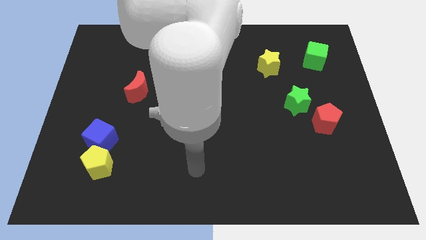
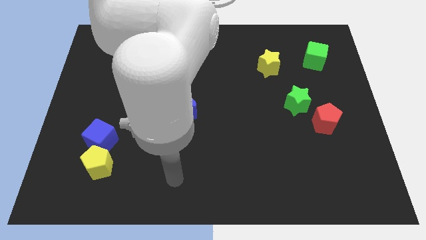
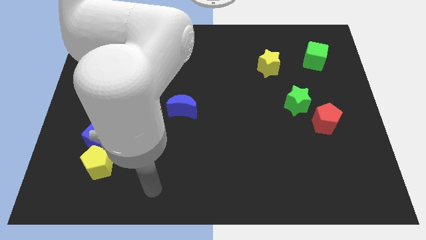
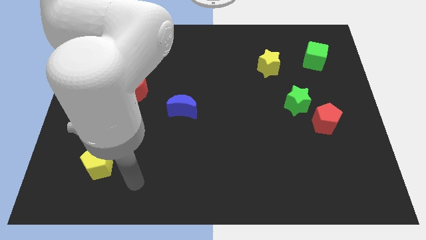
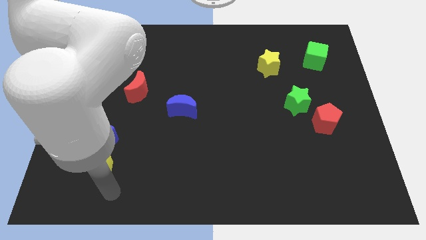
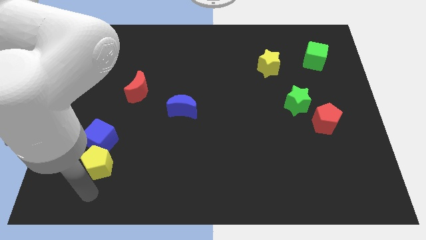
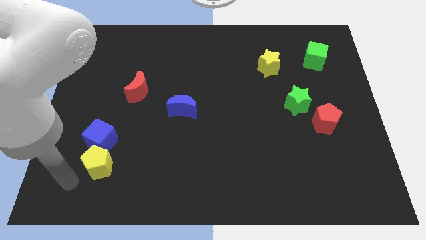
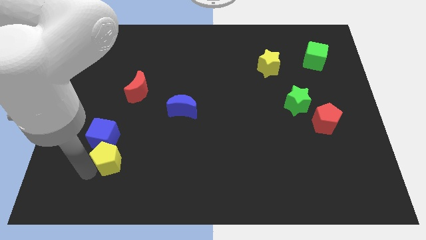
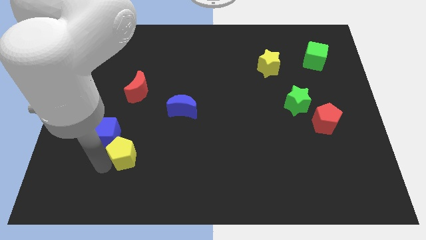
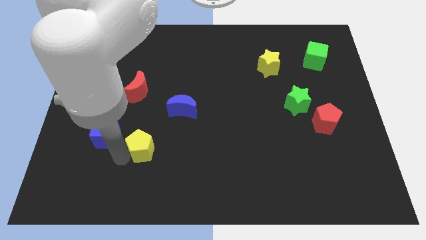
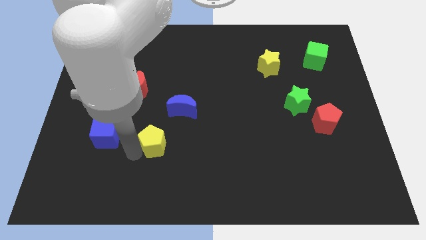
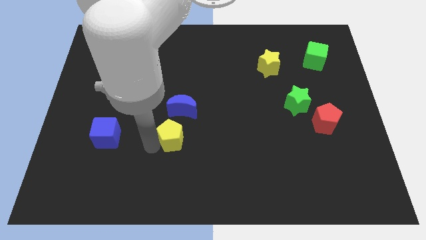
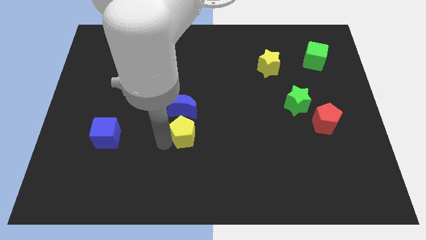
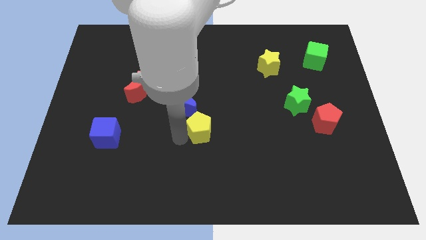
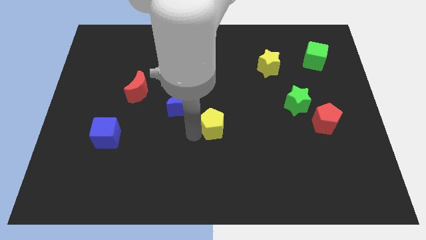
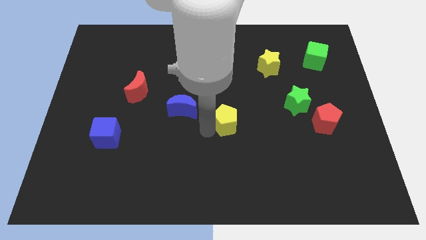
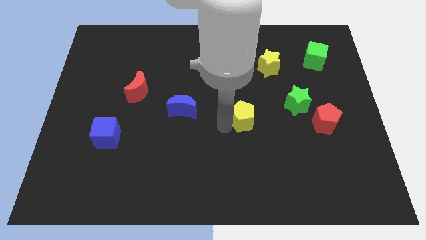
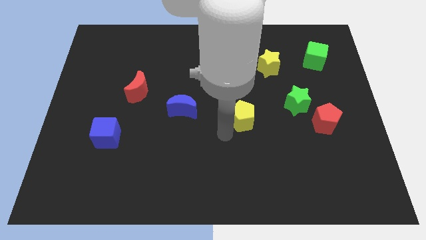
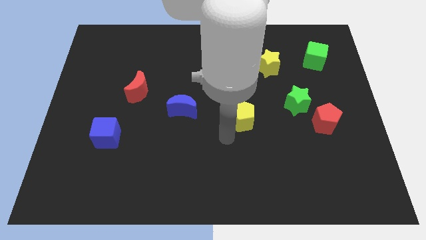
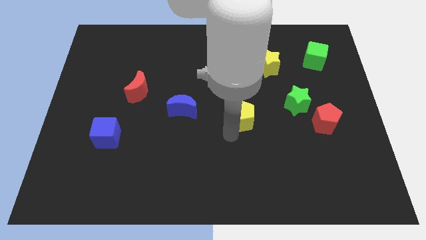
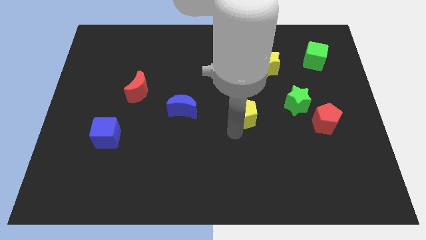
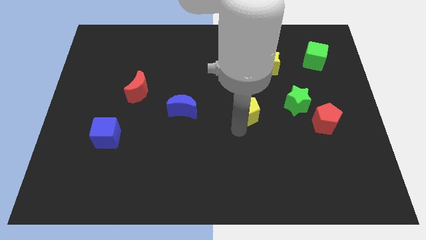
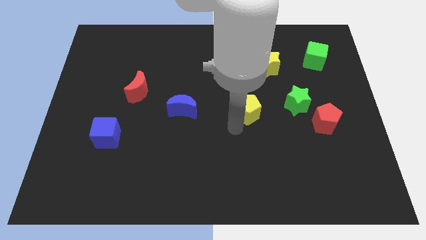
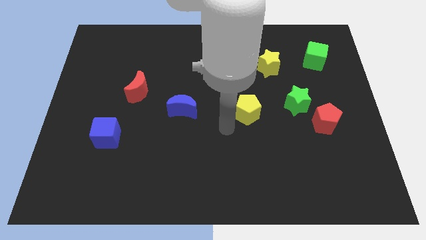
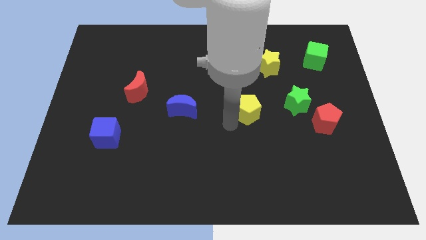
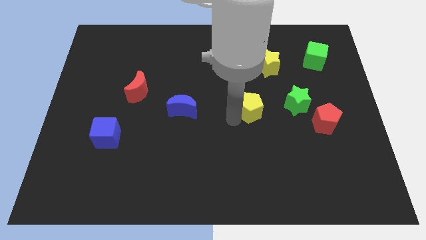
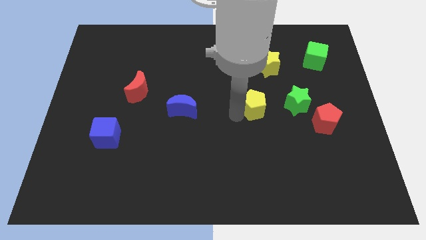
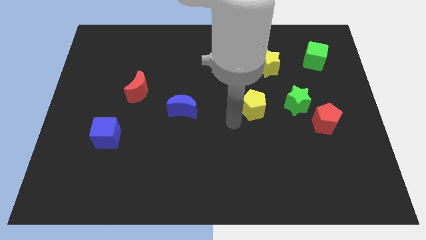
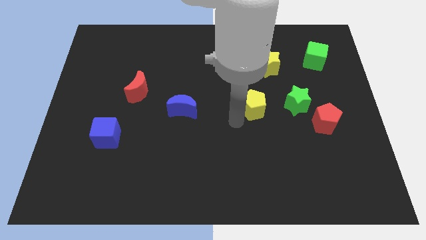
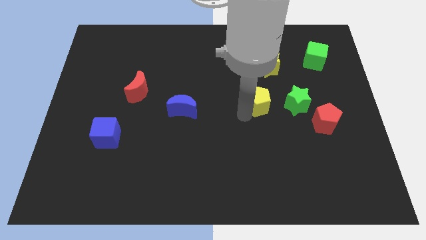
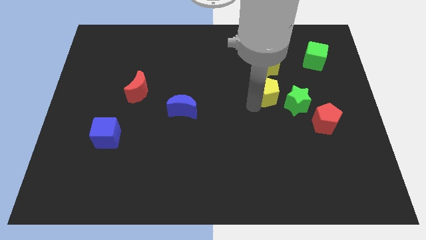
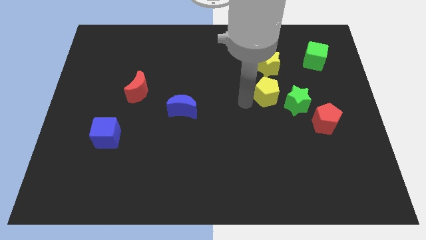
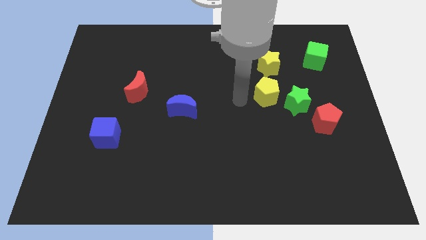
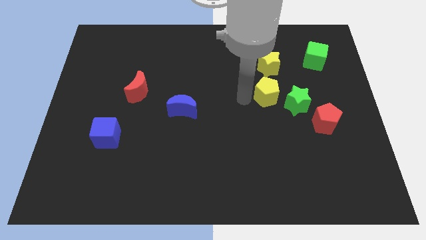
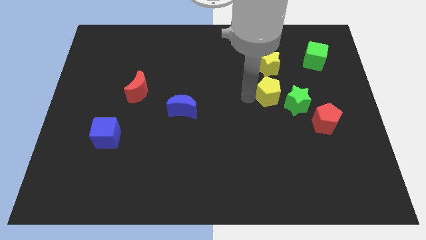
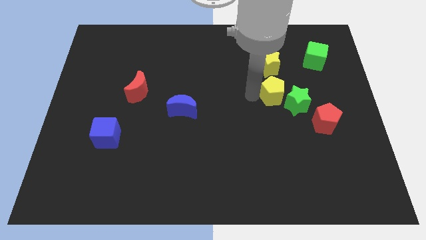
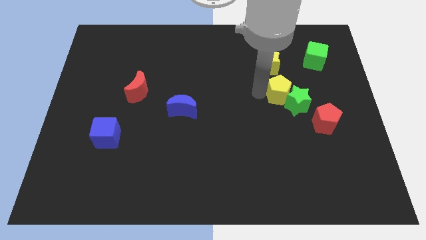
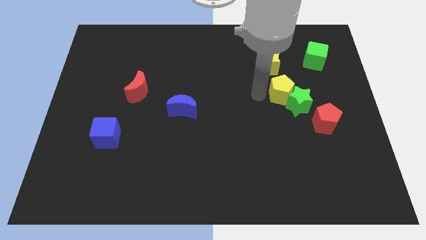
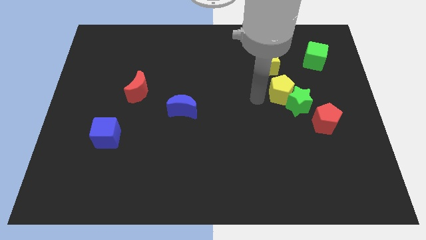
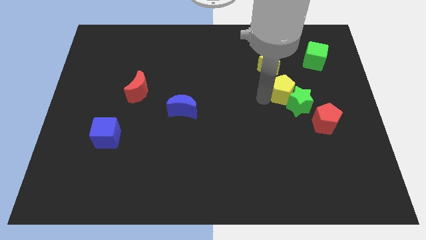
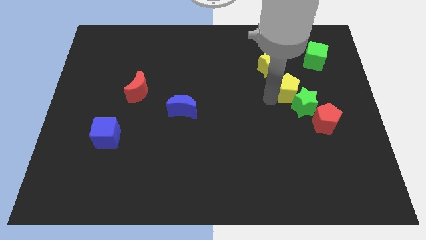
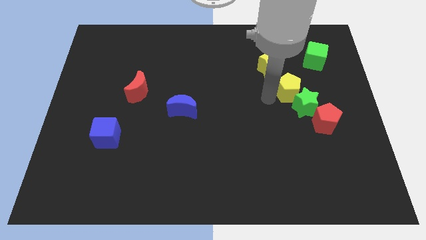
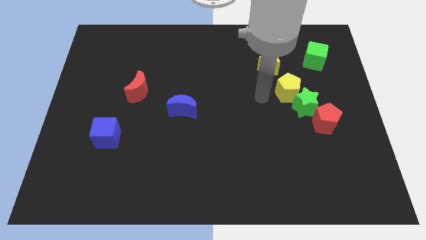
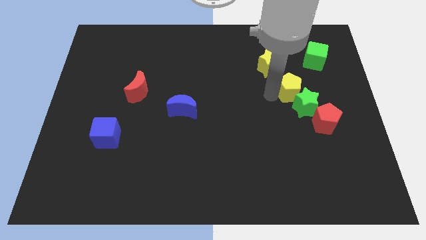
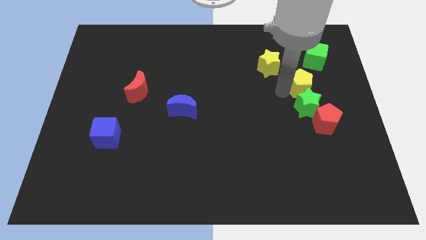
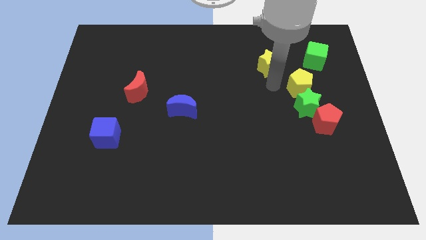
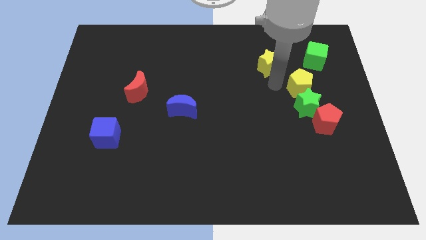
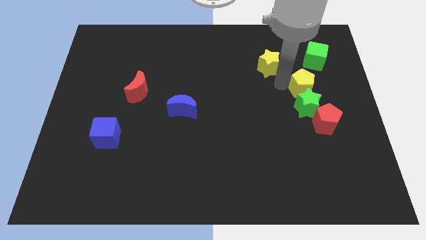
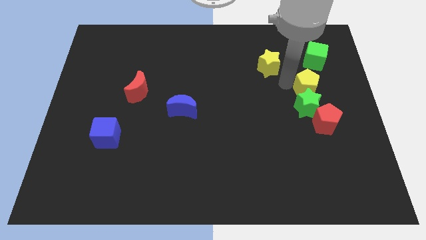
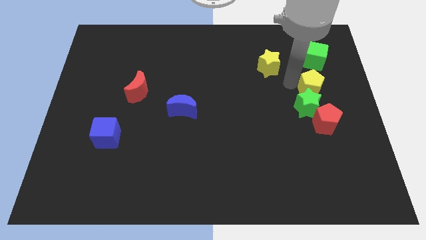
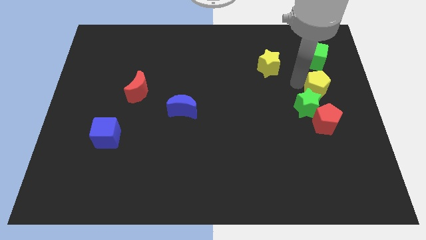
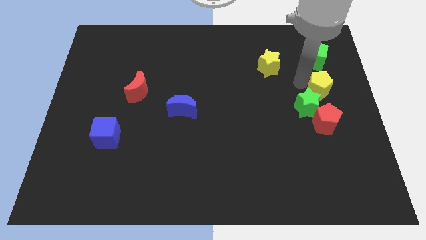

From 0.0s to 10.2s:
move the yellow pentagon to the center right

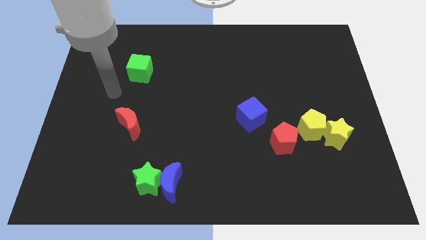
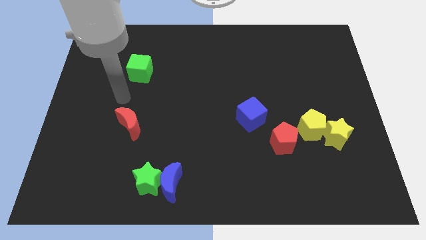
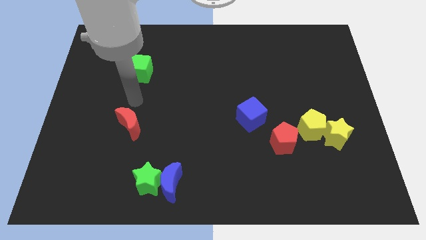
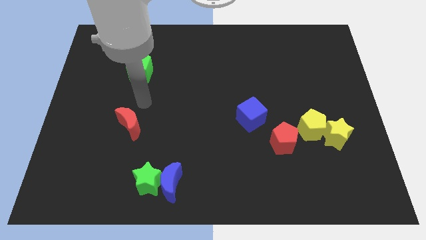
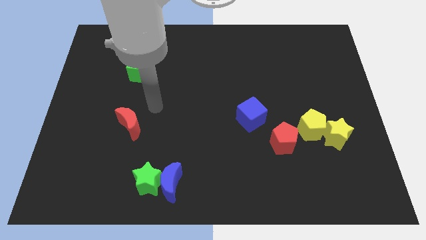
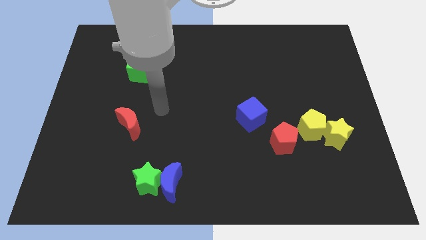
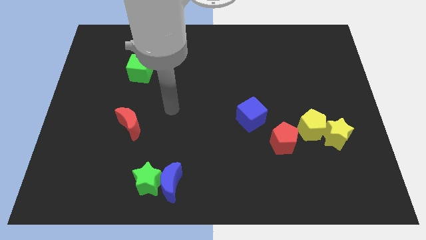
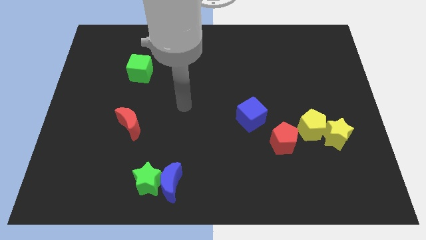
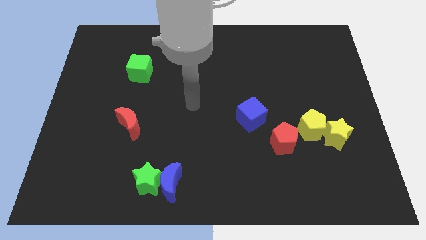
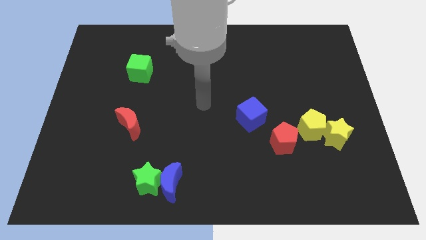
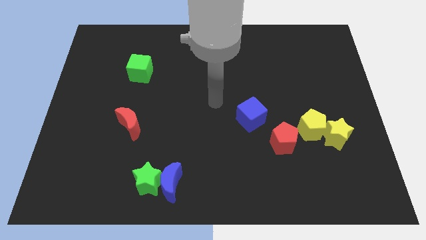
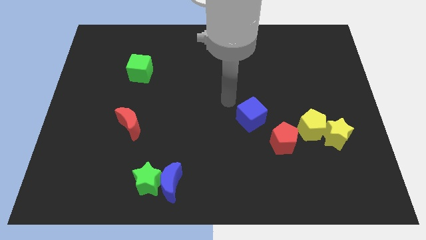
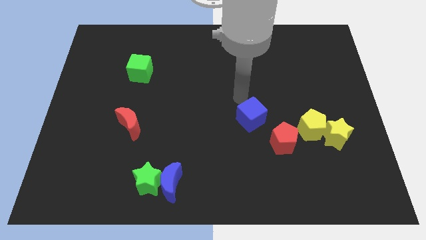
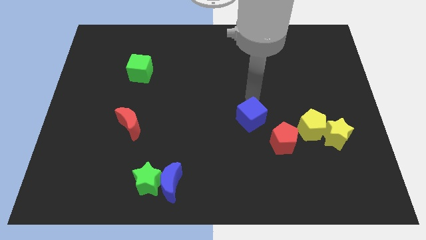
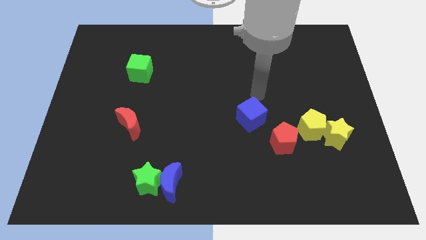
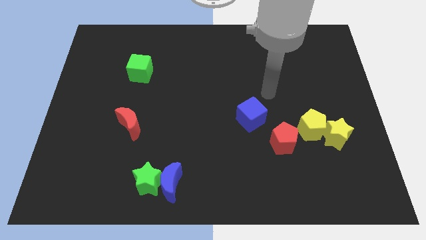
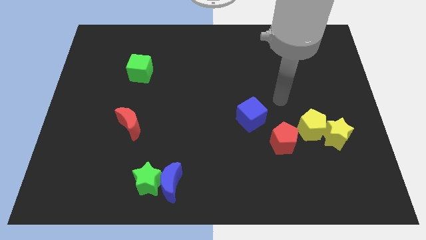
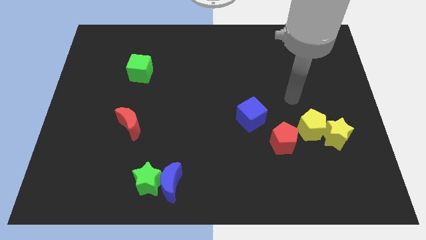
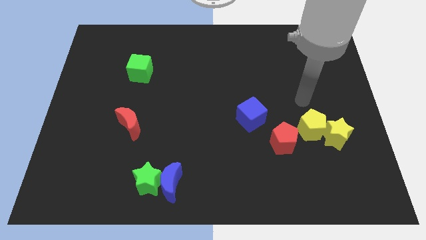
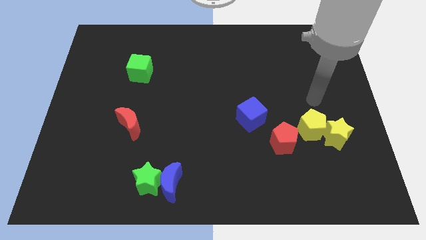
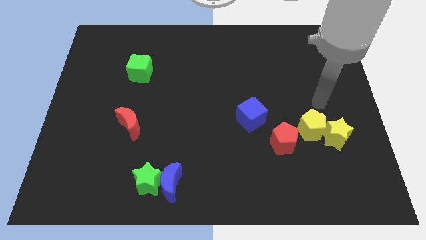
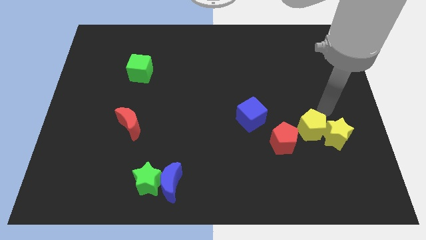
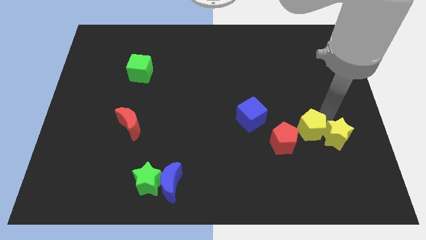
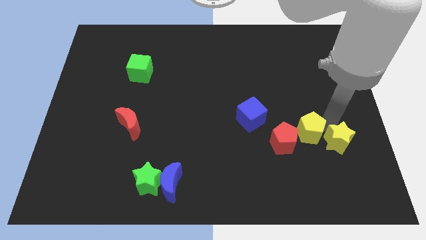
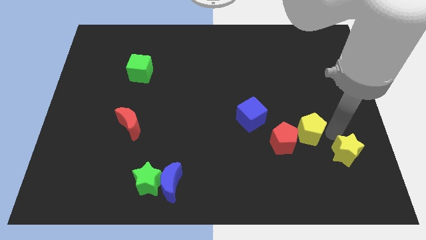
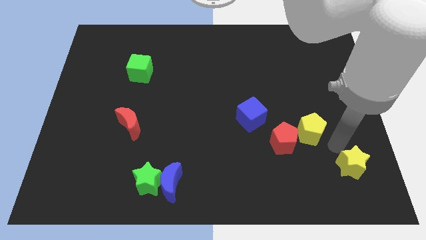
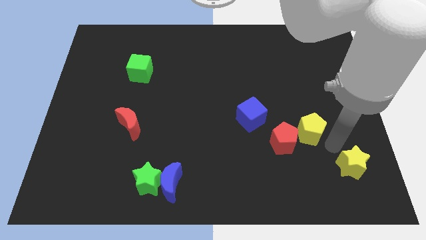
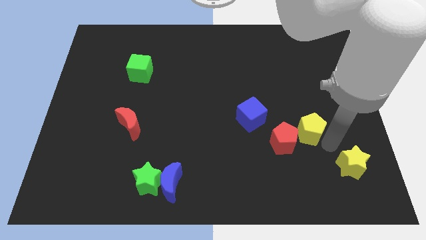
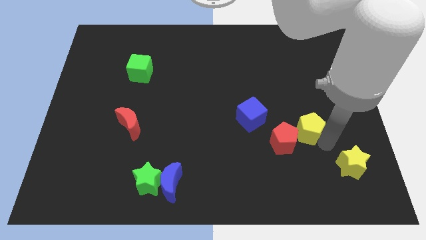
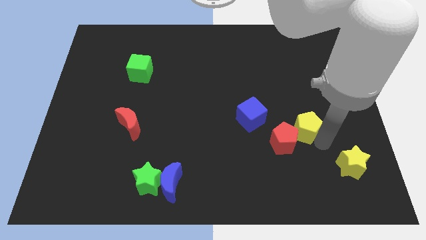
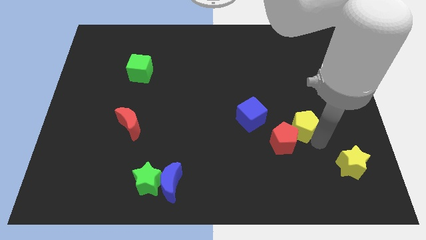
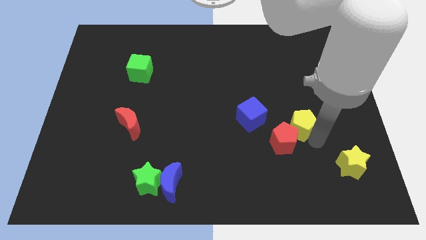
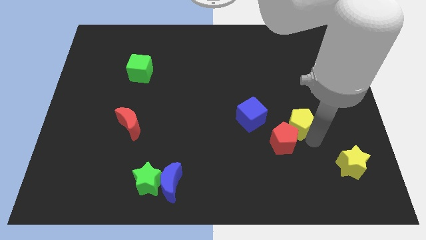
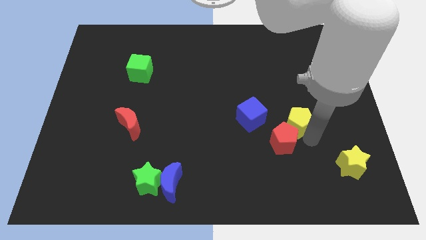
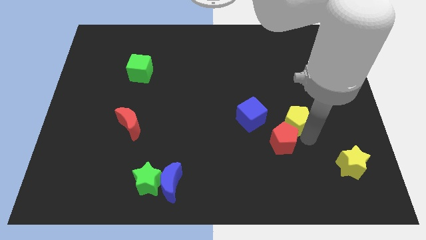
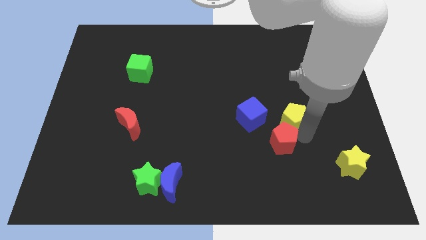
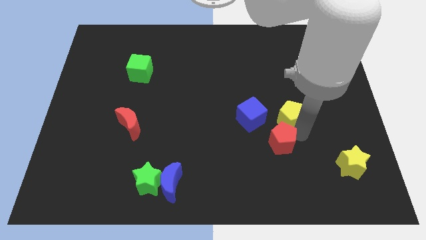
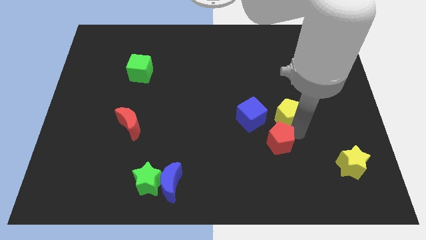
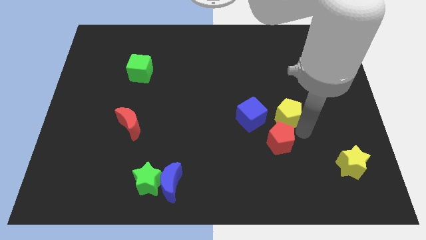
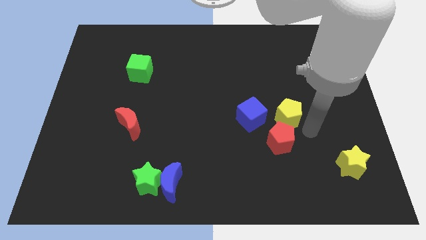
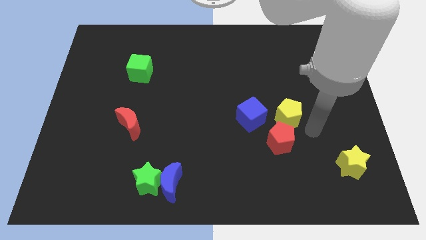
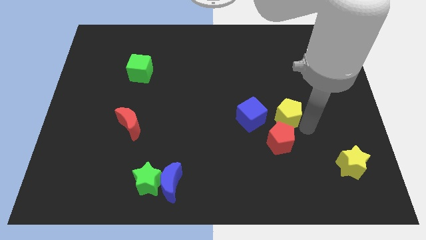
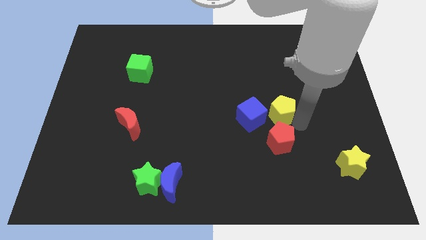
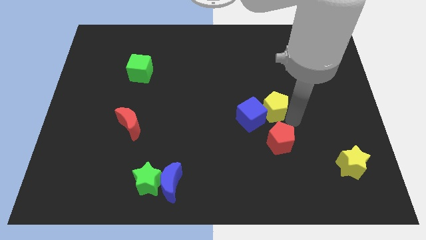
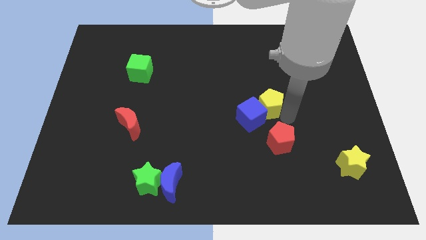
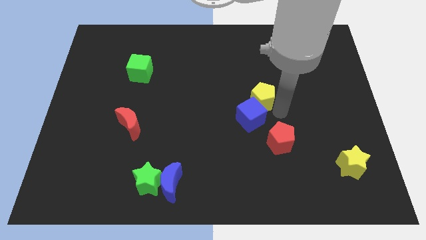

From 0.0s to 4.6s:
push the yellow pentagon to the middle of the board
